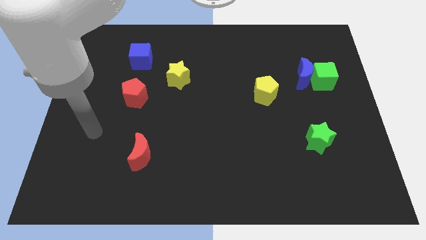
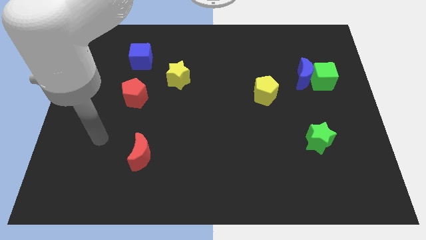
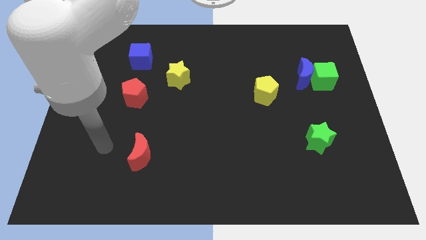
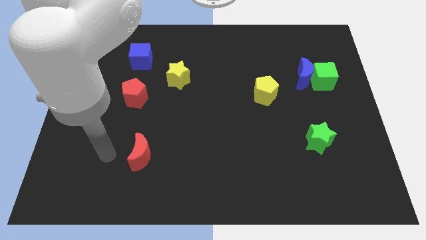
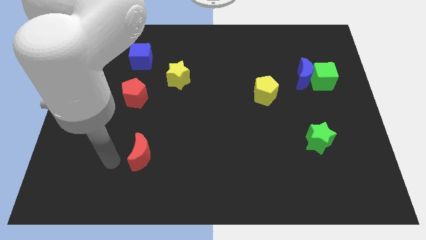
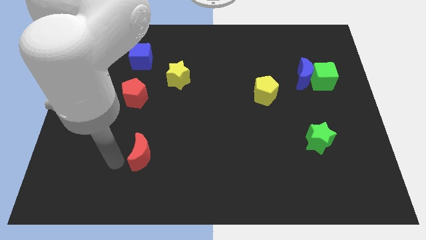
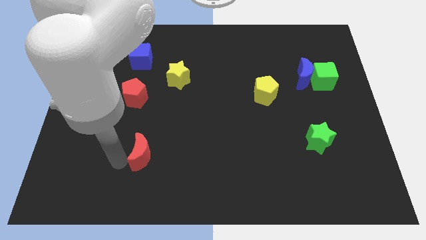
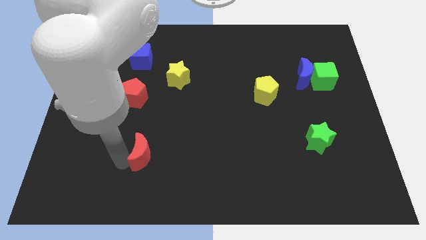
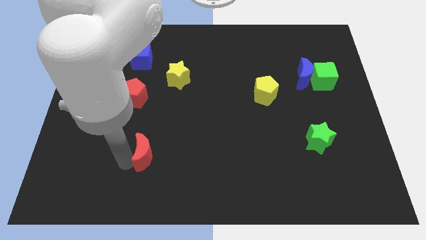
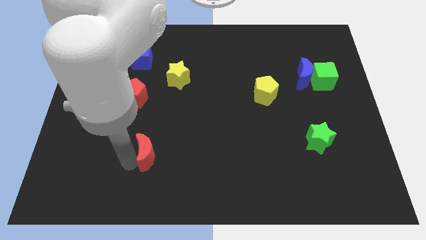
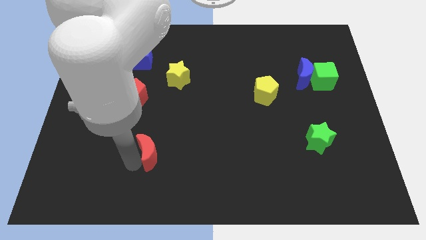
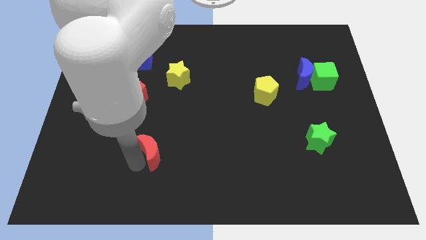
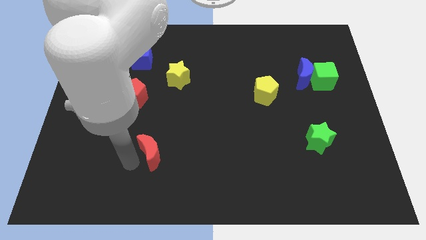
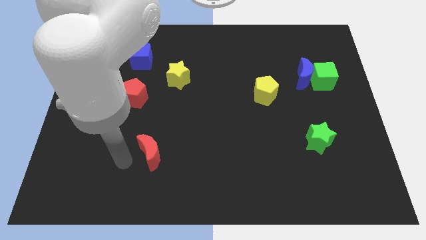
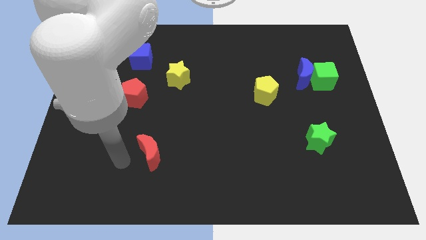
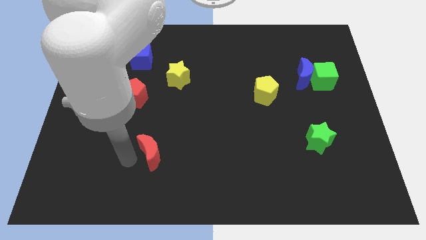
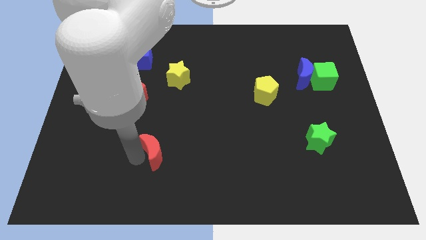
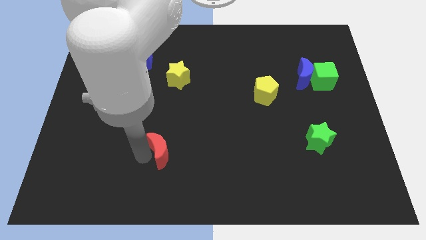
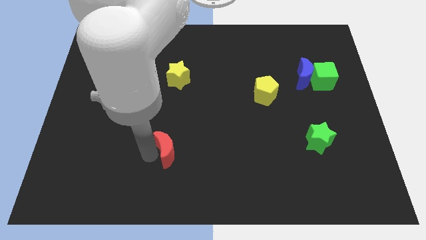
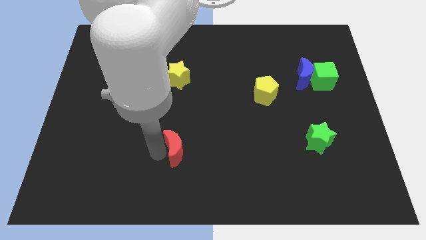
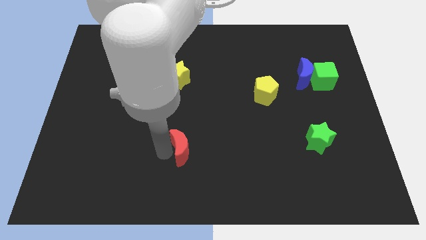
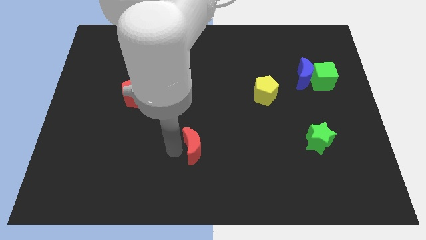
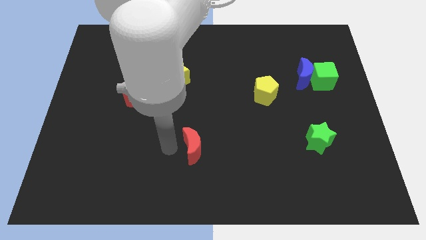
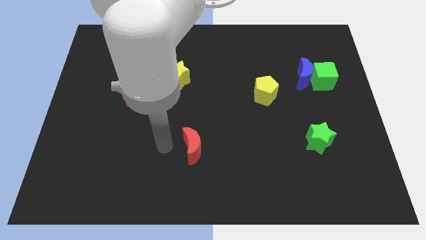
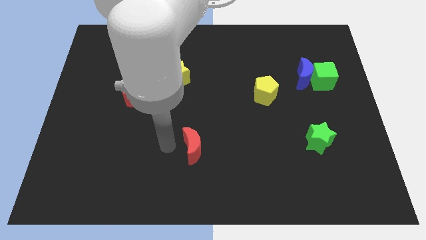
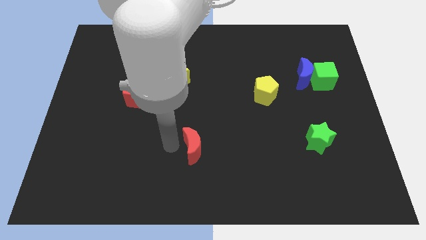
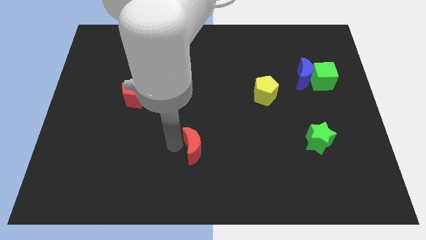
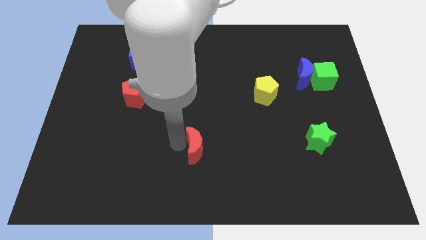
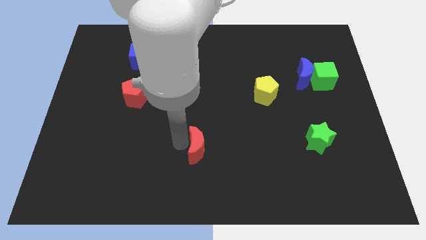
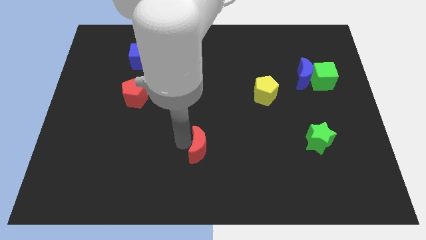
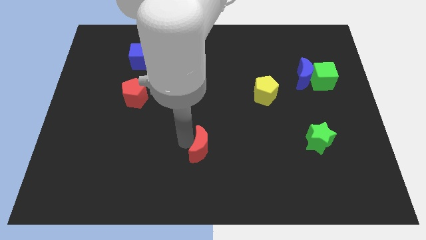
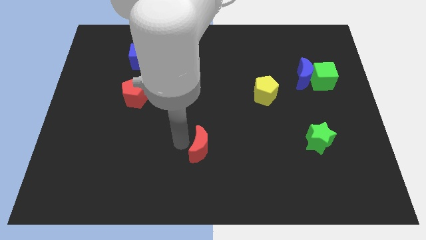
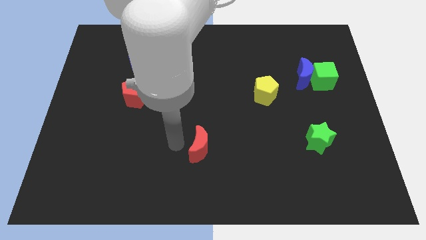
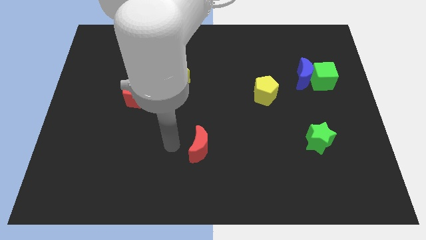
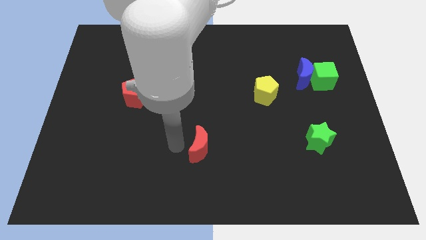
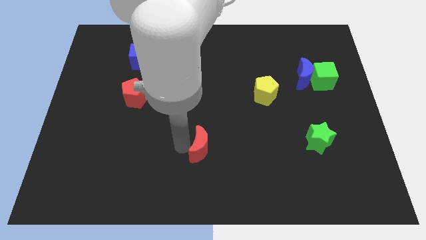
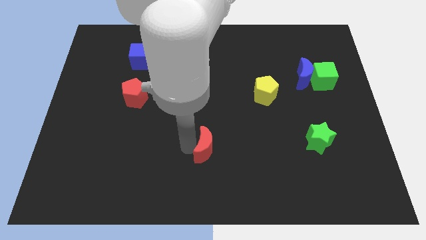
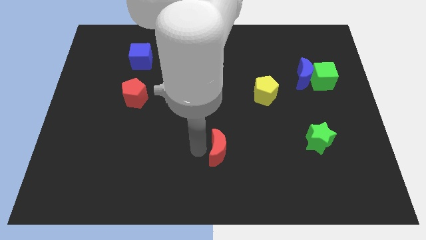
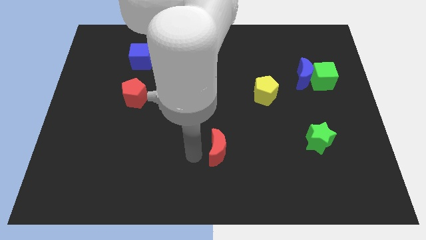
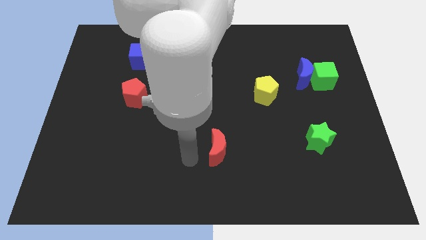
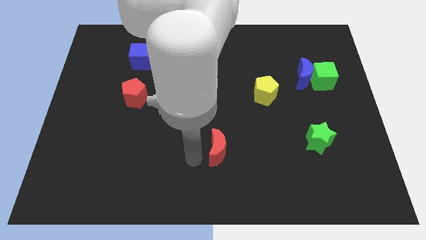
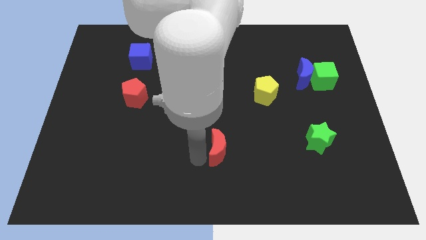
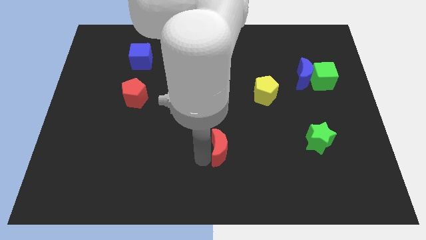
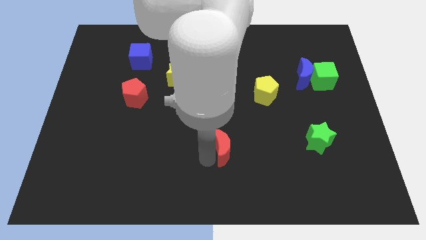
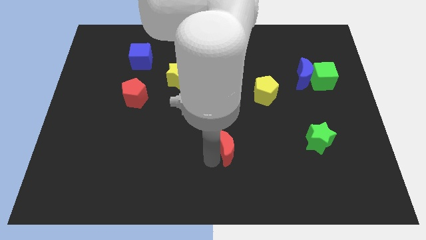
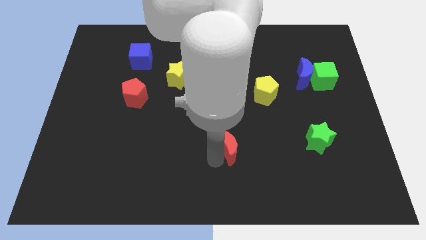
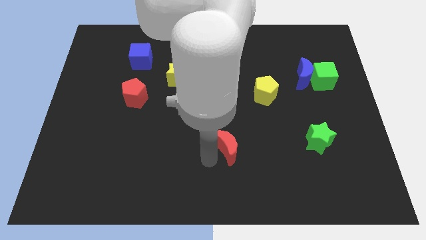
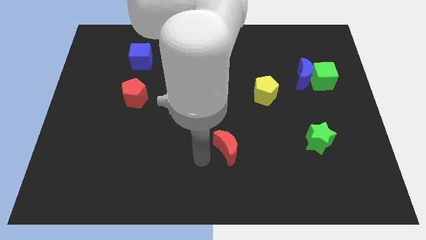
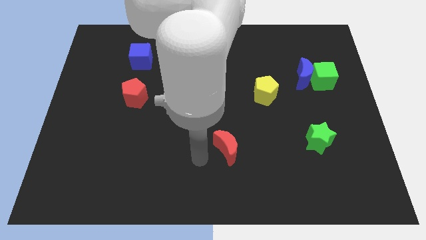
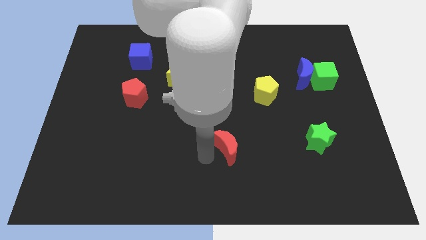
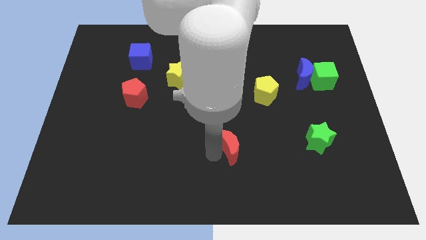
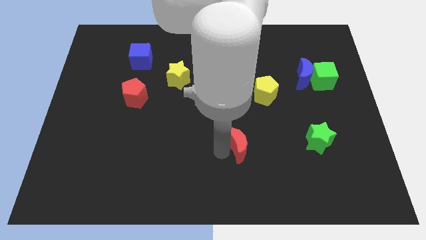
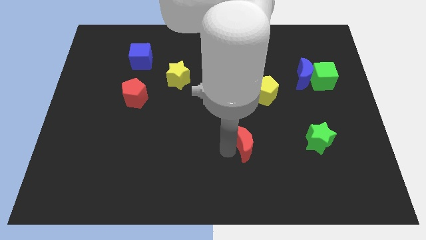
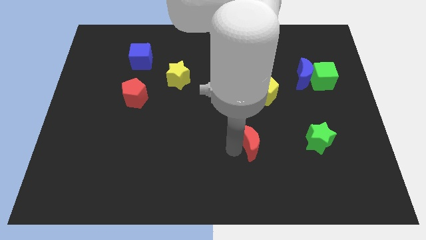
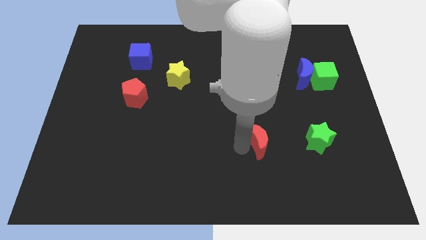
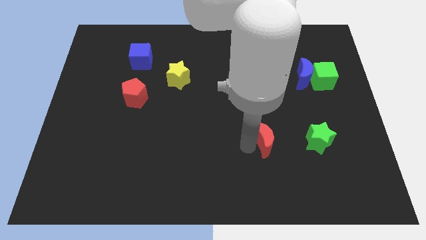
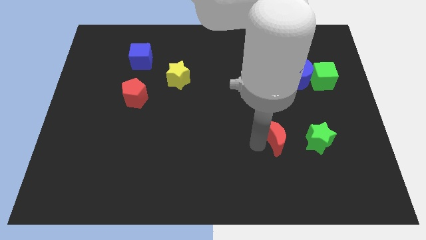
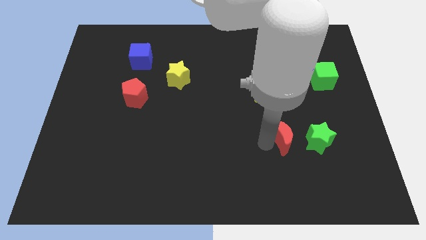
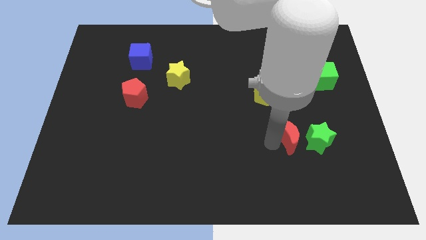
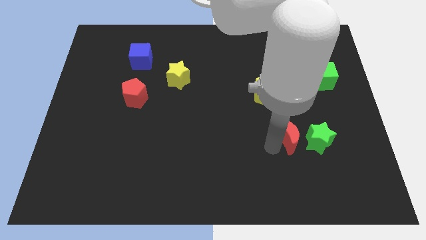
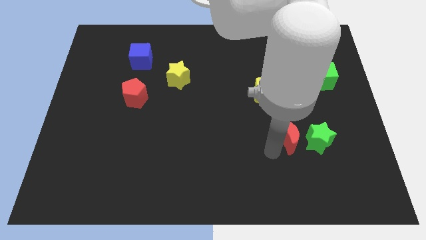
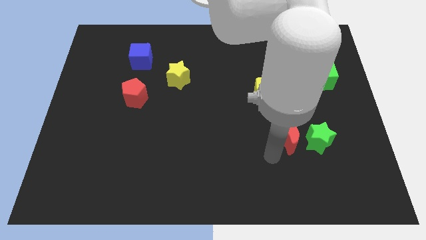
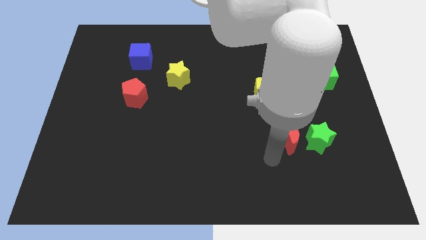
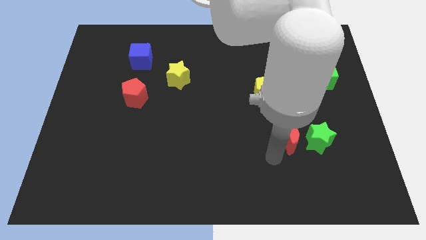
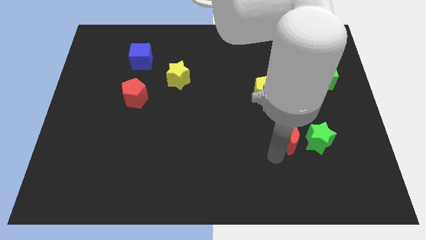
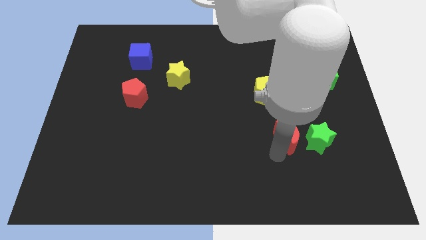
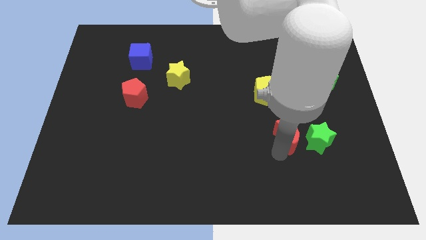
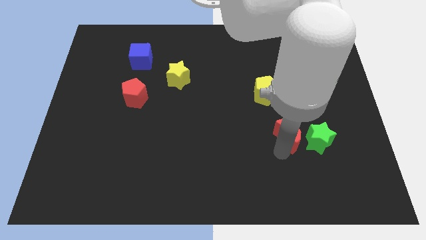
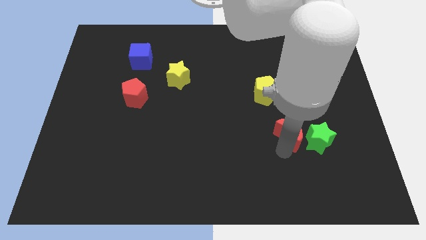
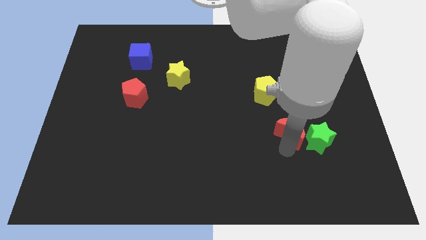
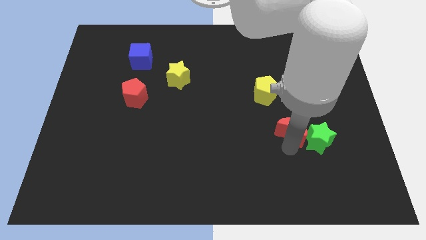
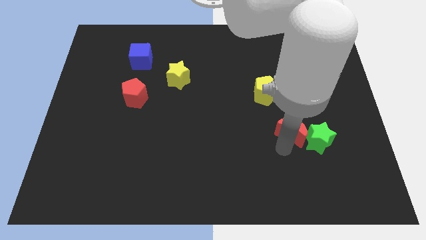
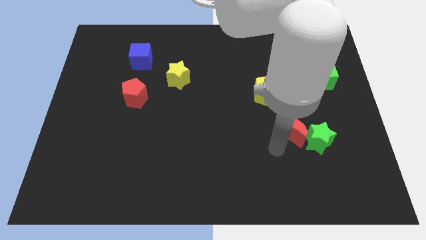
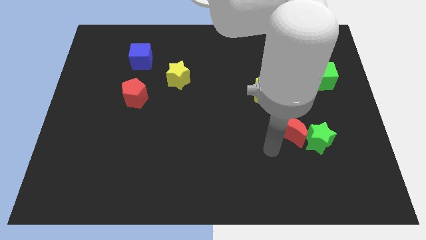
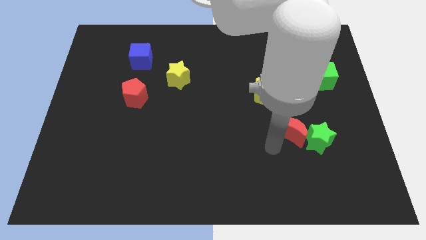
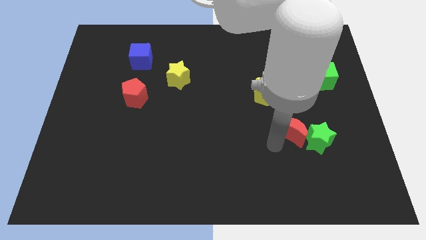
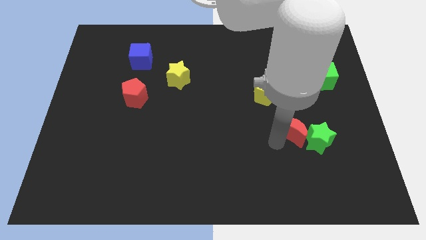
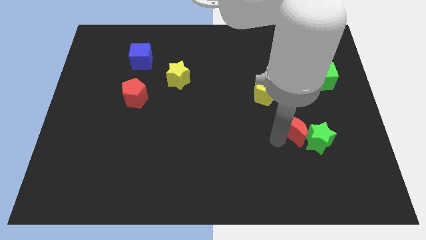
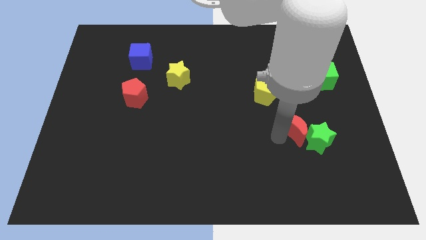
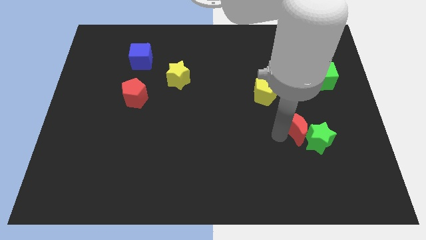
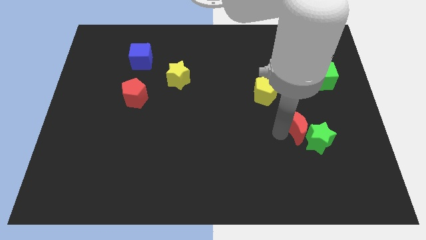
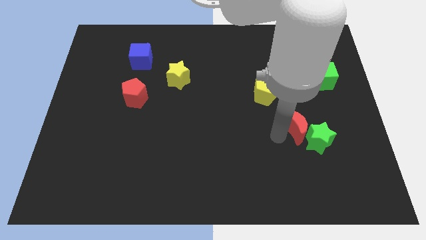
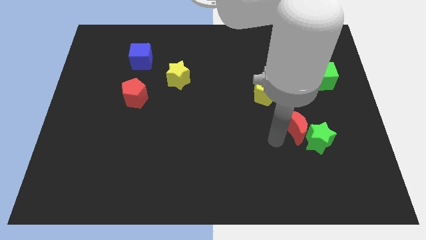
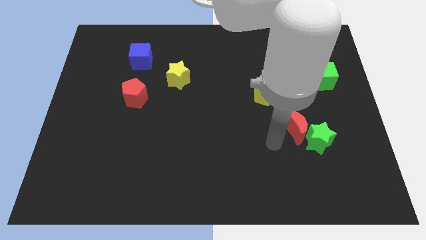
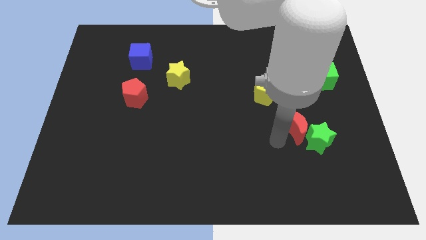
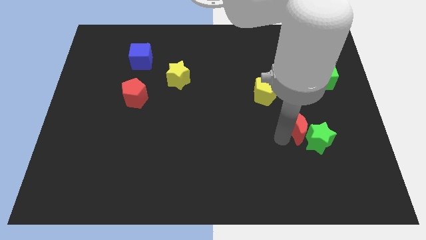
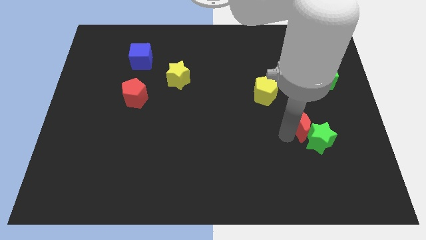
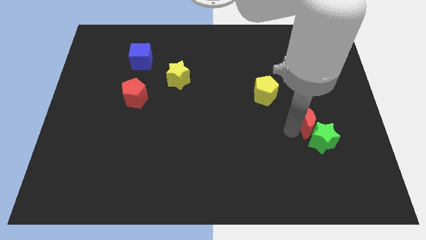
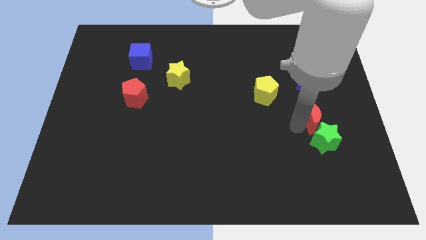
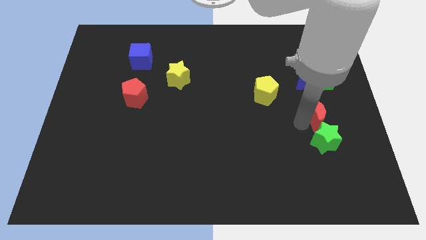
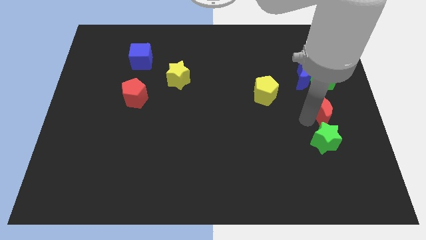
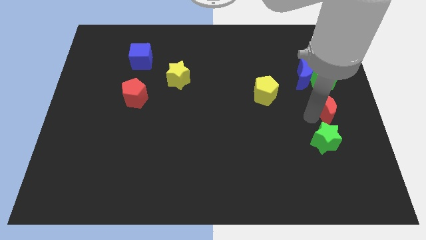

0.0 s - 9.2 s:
put the red moon to the right side of the board
